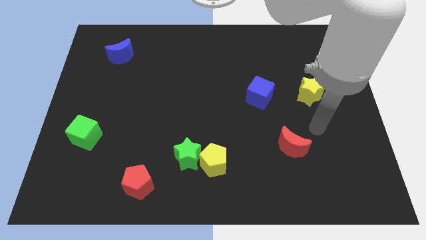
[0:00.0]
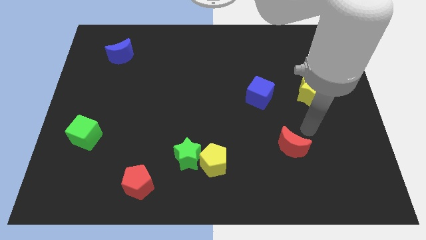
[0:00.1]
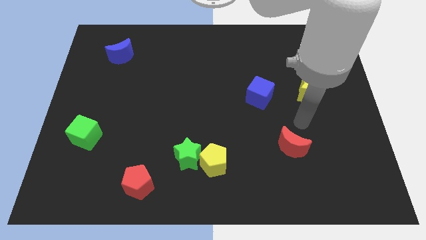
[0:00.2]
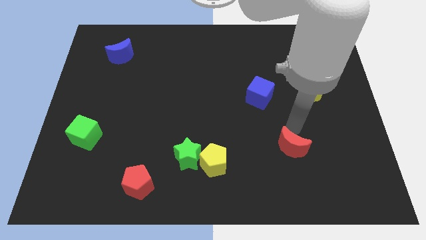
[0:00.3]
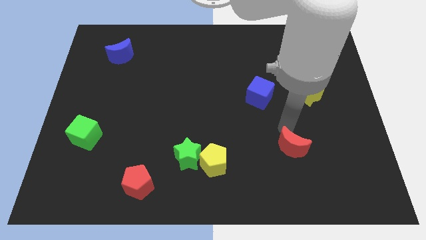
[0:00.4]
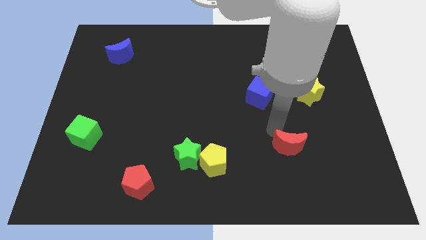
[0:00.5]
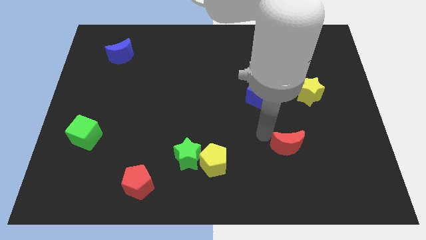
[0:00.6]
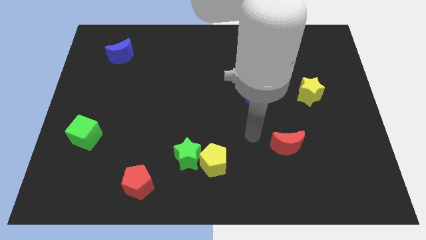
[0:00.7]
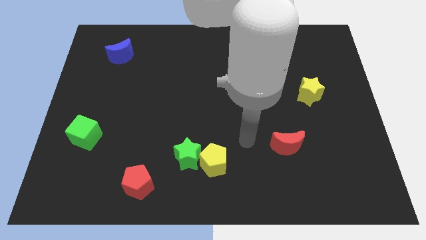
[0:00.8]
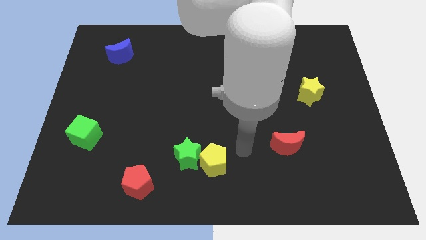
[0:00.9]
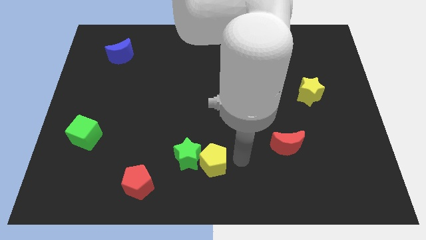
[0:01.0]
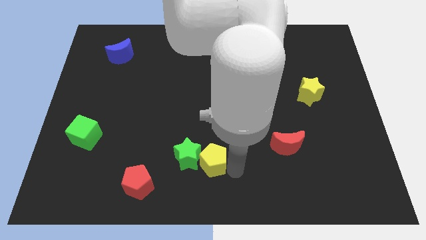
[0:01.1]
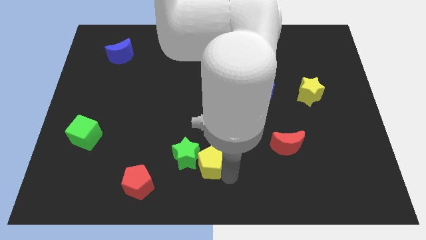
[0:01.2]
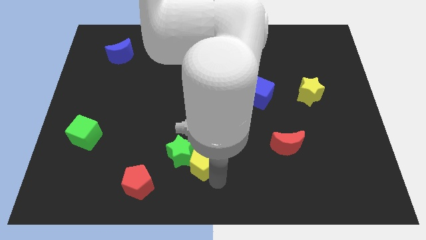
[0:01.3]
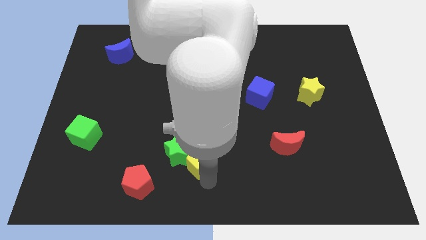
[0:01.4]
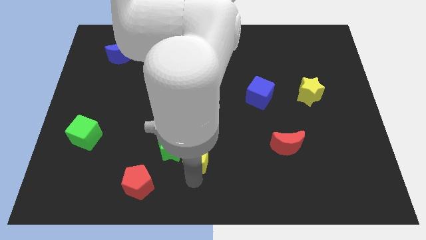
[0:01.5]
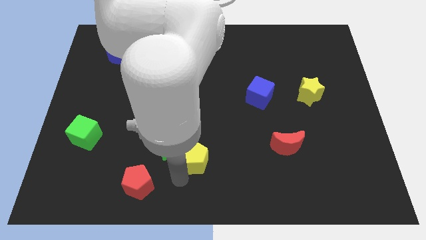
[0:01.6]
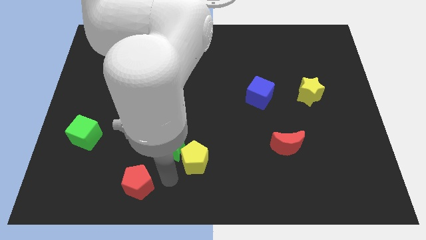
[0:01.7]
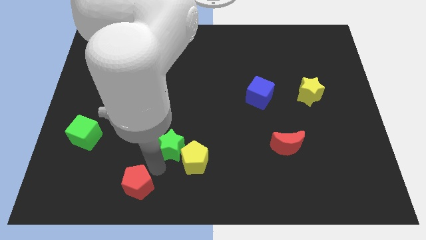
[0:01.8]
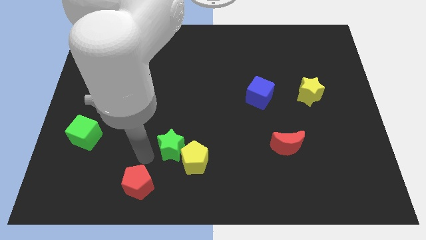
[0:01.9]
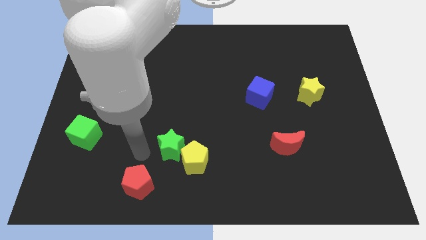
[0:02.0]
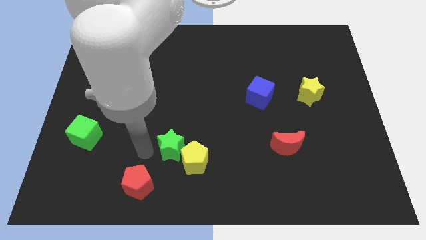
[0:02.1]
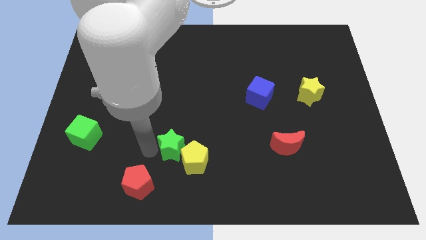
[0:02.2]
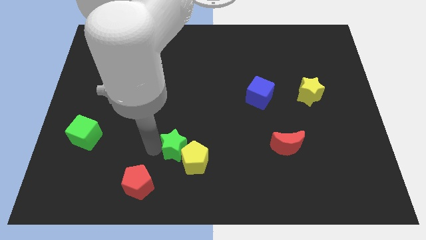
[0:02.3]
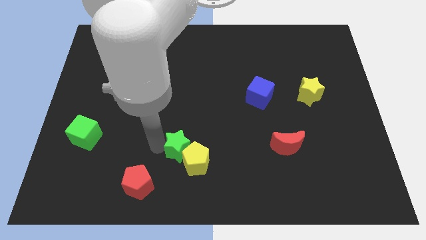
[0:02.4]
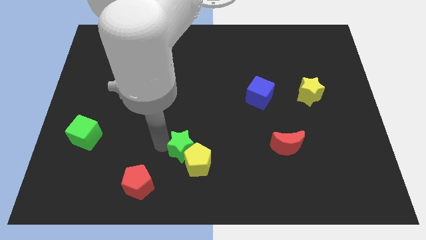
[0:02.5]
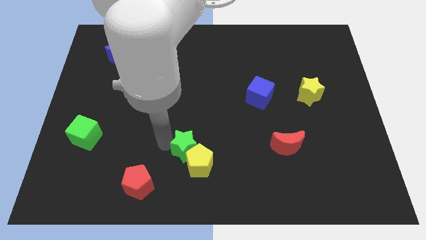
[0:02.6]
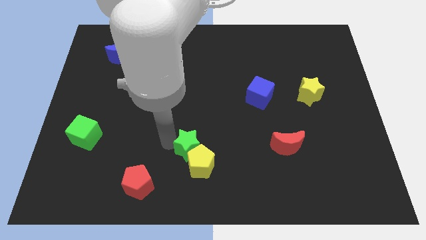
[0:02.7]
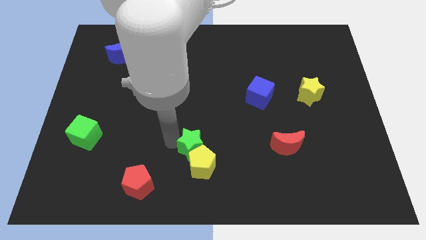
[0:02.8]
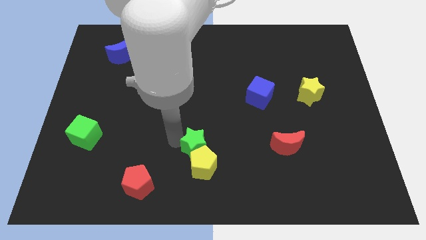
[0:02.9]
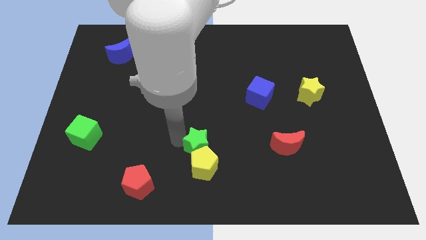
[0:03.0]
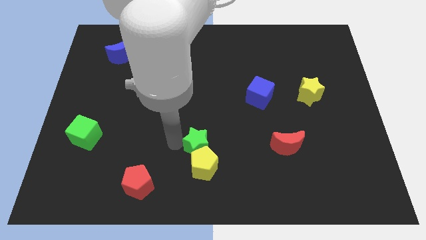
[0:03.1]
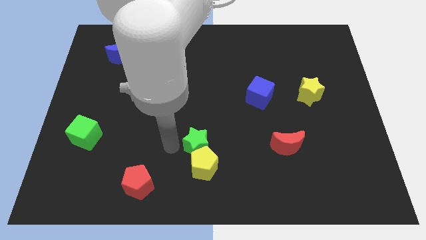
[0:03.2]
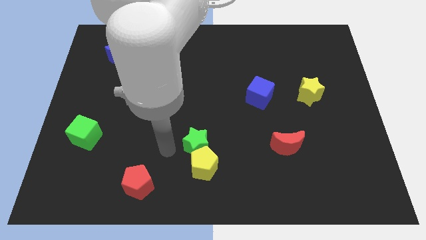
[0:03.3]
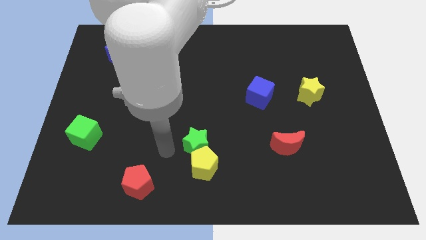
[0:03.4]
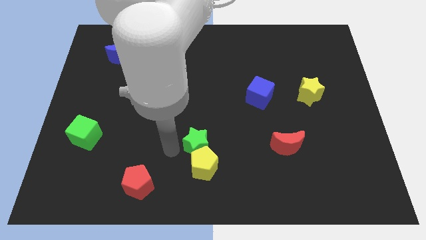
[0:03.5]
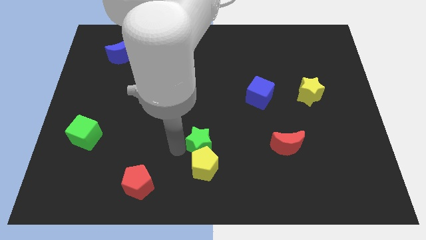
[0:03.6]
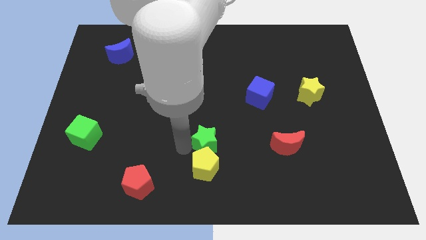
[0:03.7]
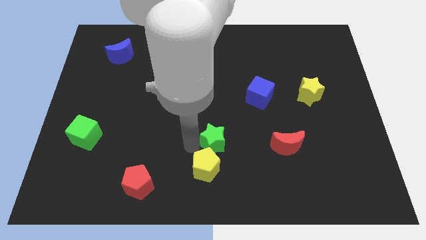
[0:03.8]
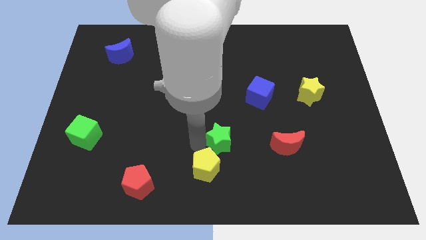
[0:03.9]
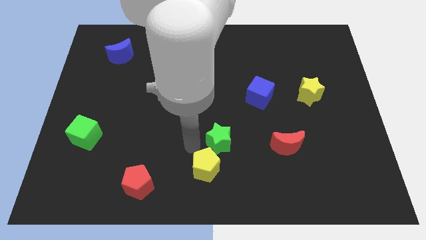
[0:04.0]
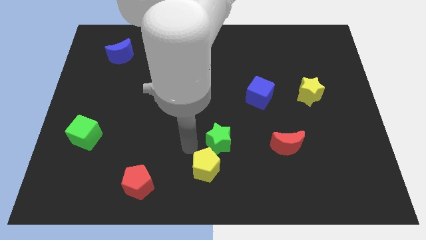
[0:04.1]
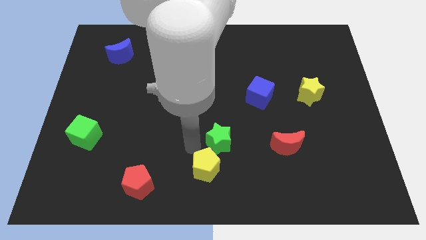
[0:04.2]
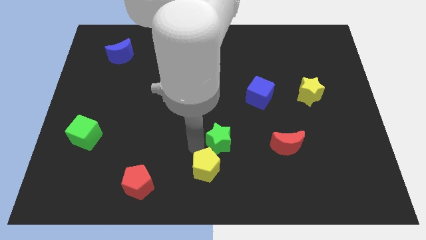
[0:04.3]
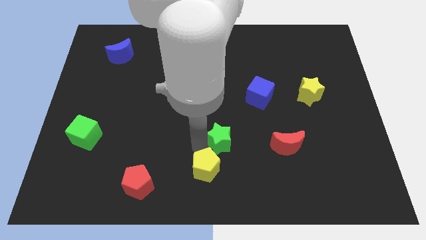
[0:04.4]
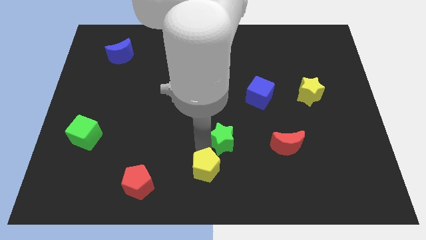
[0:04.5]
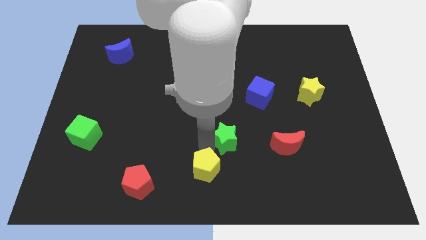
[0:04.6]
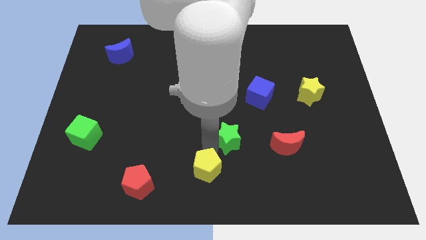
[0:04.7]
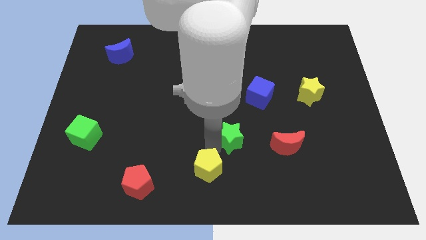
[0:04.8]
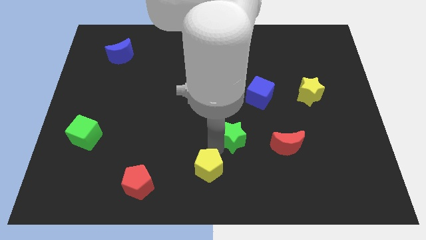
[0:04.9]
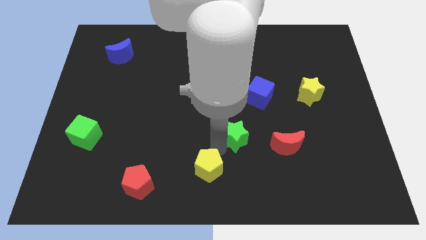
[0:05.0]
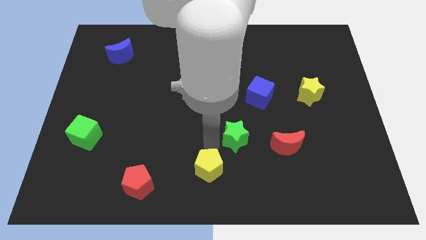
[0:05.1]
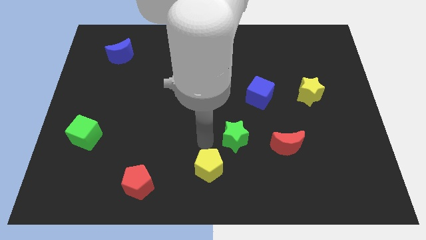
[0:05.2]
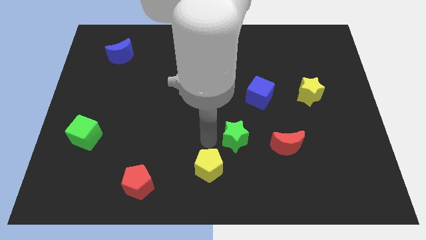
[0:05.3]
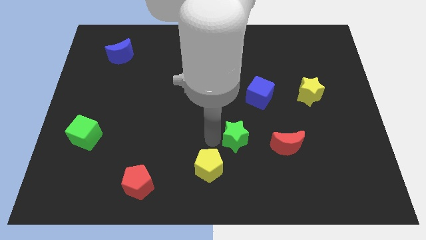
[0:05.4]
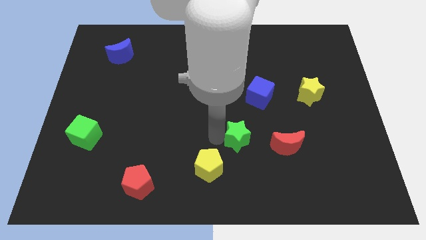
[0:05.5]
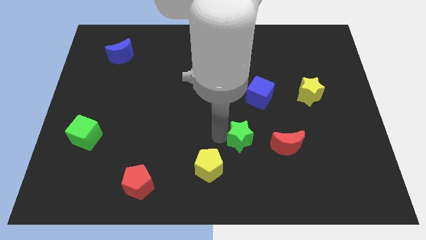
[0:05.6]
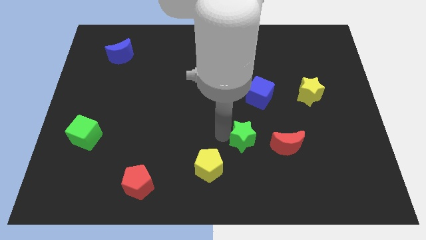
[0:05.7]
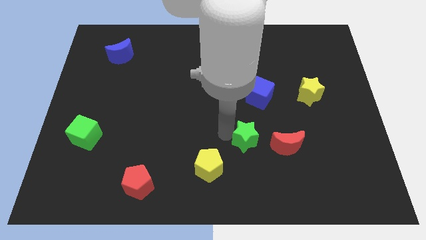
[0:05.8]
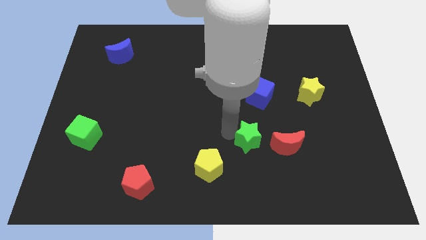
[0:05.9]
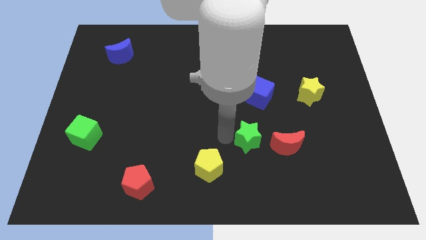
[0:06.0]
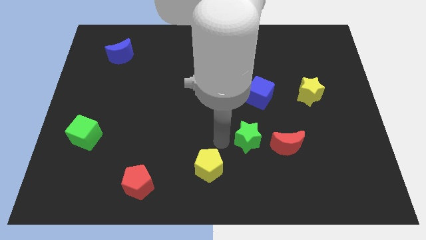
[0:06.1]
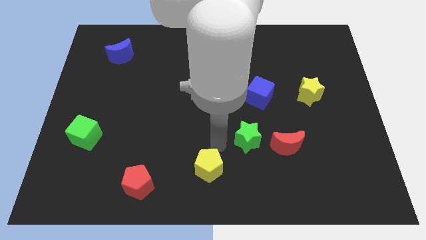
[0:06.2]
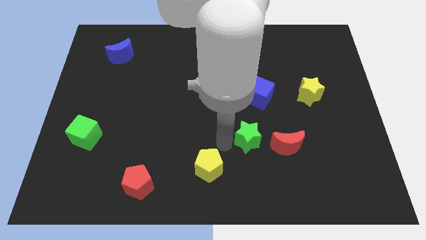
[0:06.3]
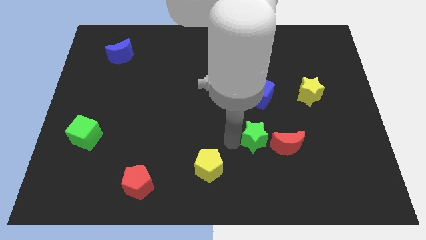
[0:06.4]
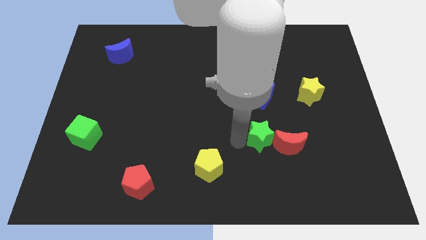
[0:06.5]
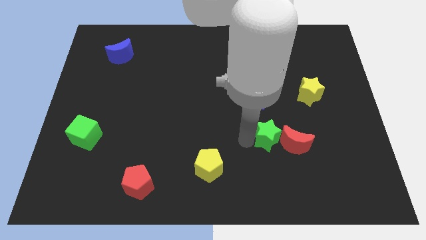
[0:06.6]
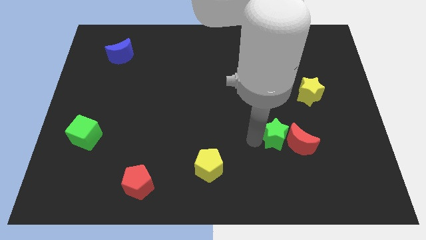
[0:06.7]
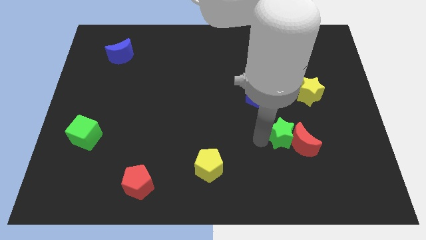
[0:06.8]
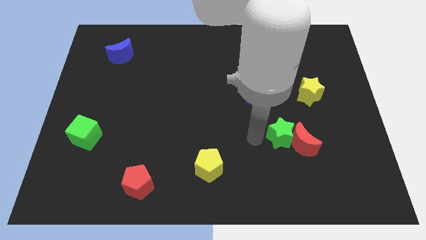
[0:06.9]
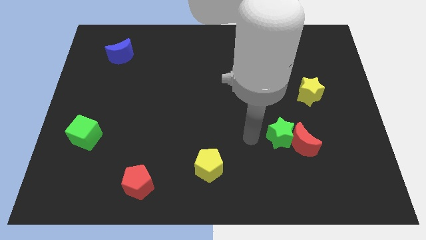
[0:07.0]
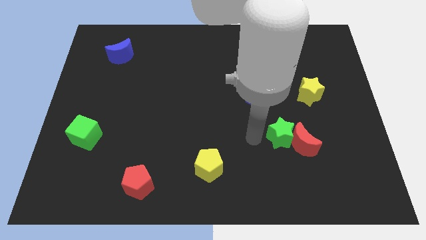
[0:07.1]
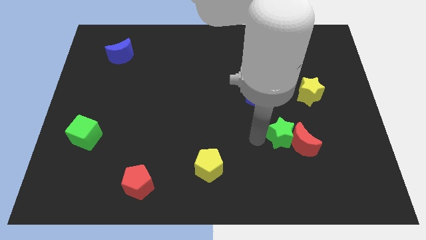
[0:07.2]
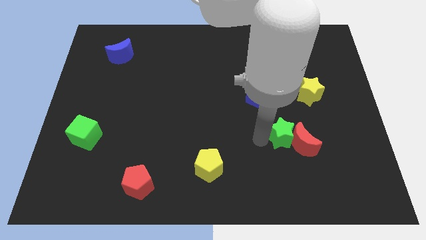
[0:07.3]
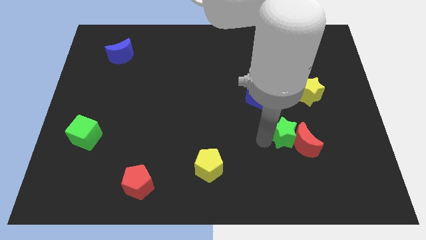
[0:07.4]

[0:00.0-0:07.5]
slide the green star to the right

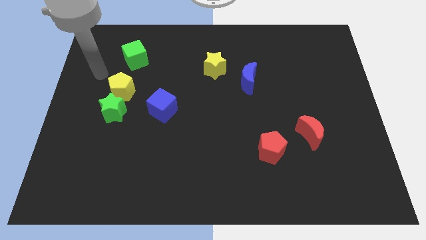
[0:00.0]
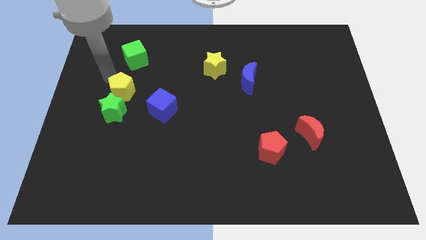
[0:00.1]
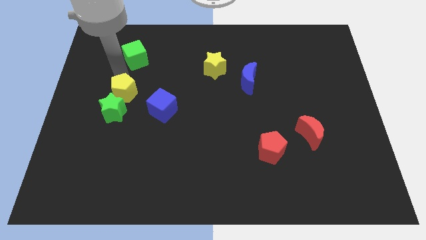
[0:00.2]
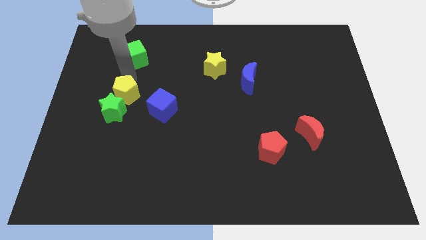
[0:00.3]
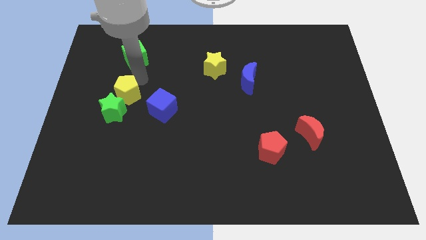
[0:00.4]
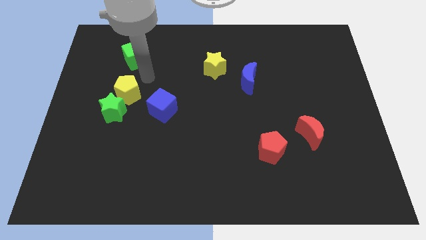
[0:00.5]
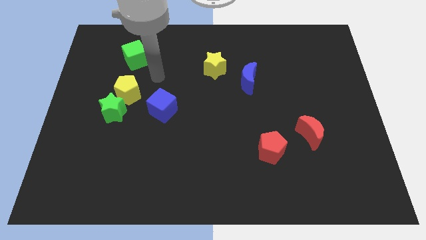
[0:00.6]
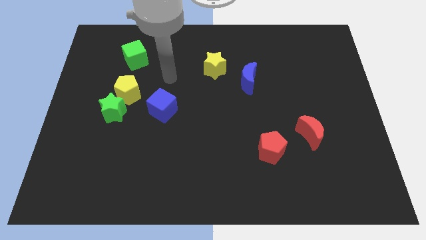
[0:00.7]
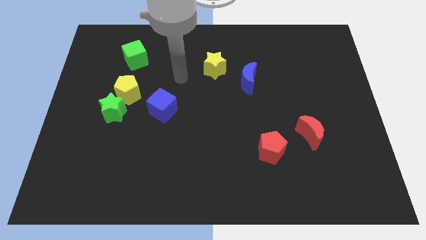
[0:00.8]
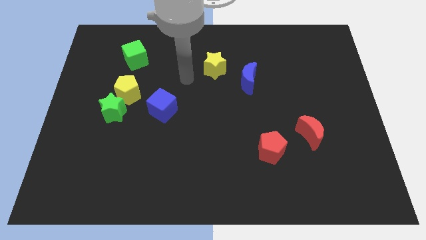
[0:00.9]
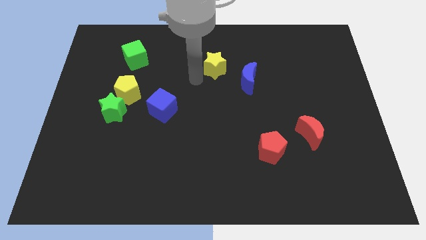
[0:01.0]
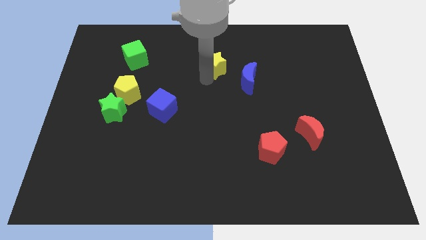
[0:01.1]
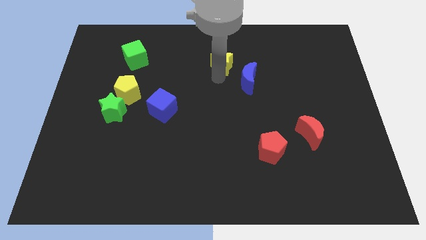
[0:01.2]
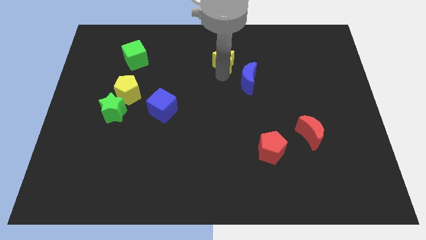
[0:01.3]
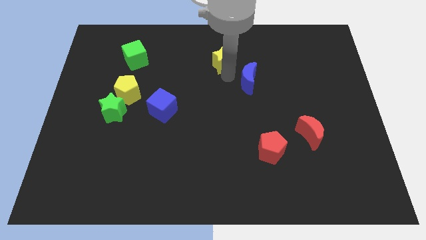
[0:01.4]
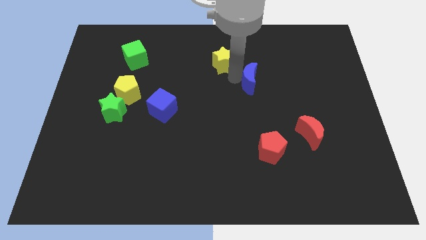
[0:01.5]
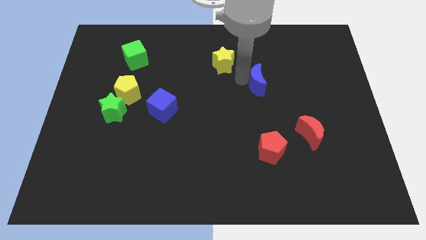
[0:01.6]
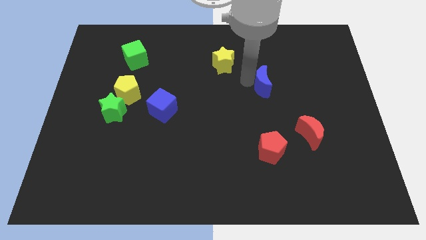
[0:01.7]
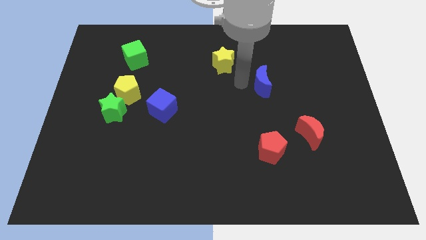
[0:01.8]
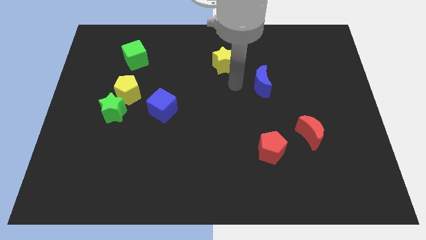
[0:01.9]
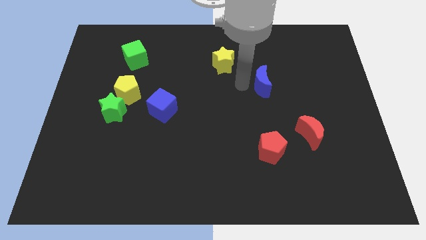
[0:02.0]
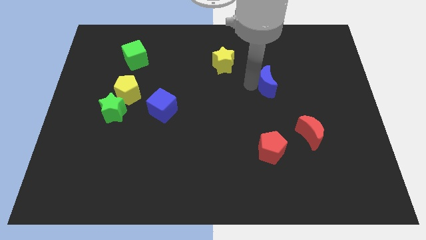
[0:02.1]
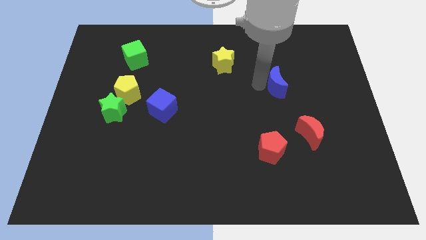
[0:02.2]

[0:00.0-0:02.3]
push the blue moon somewhat right
